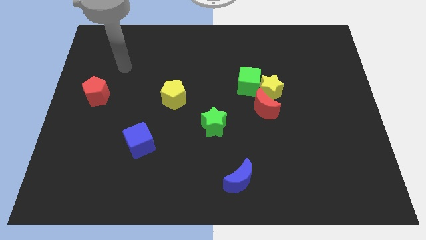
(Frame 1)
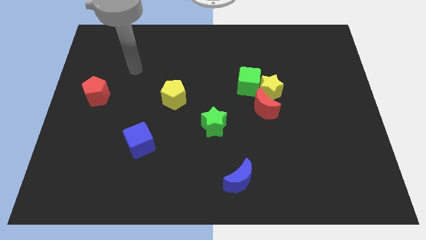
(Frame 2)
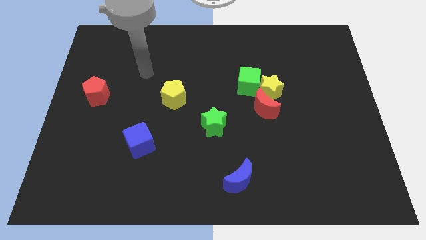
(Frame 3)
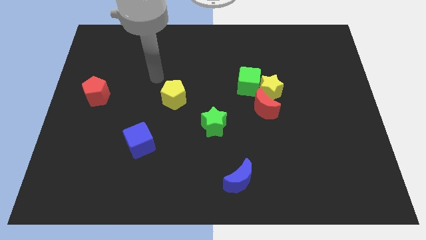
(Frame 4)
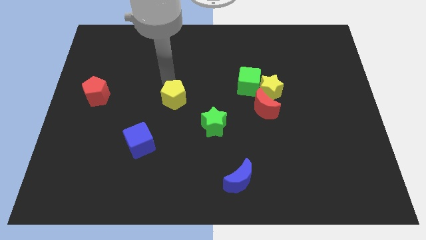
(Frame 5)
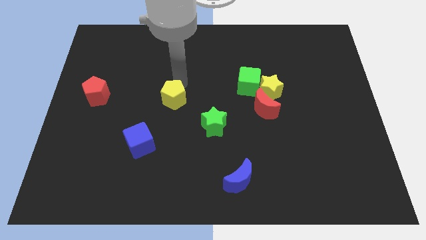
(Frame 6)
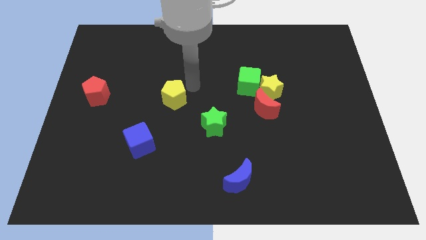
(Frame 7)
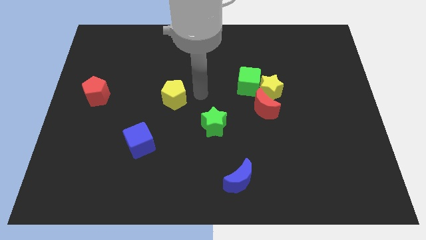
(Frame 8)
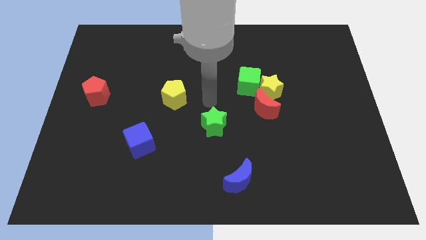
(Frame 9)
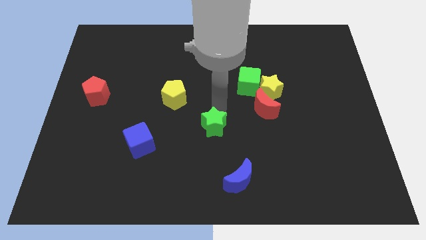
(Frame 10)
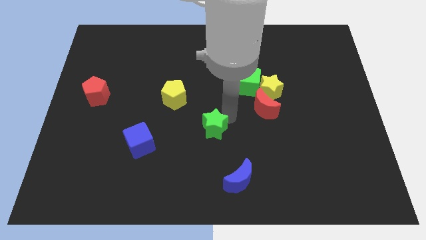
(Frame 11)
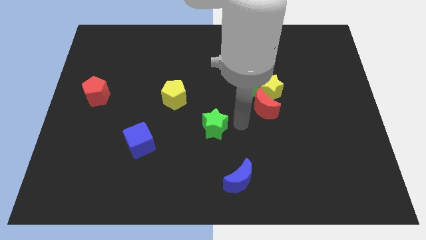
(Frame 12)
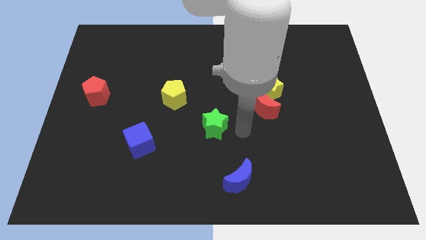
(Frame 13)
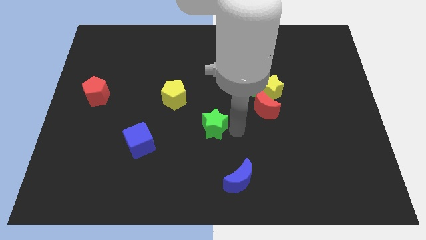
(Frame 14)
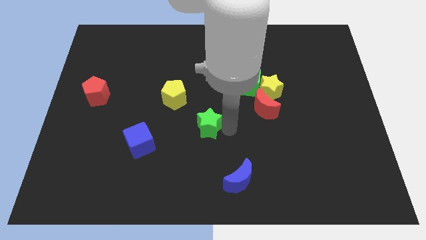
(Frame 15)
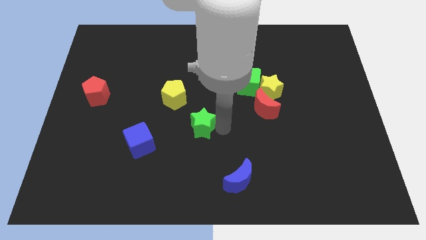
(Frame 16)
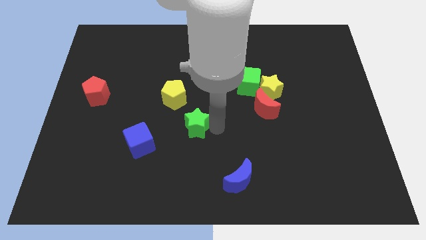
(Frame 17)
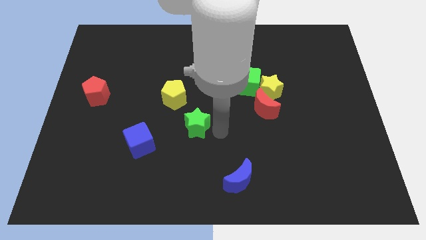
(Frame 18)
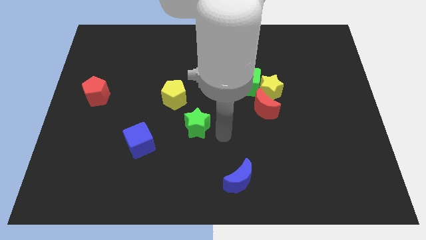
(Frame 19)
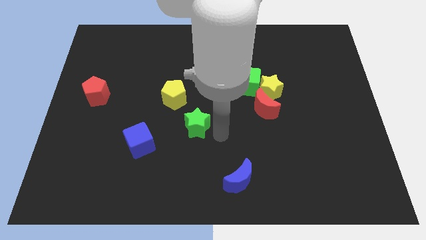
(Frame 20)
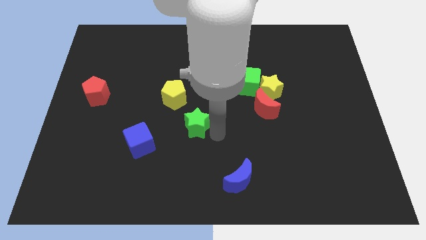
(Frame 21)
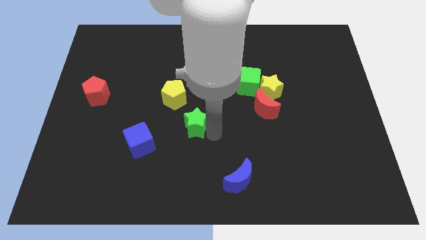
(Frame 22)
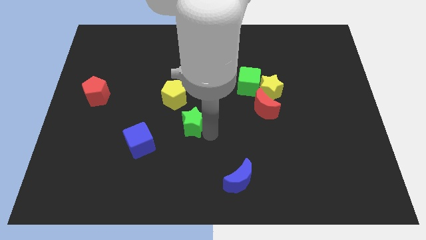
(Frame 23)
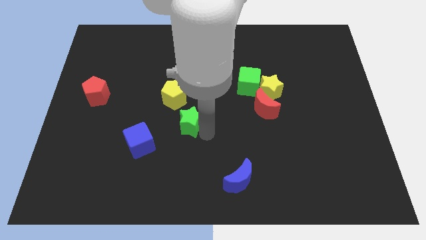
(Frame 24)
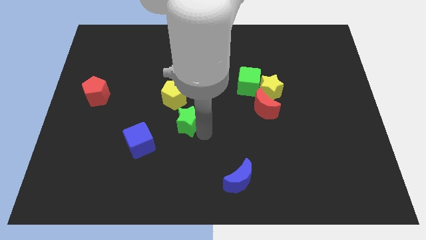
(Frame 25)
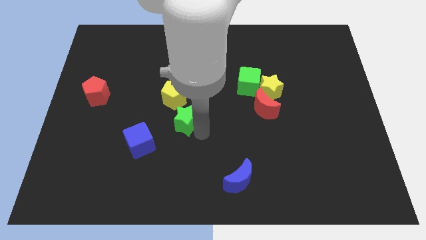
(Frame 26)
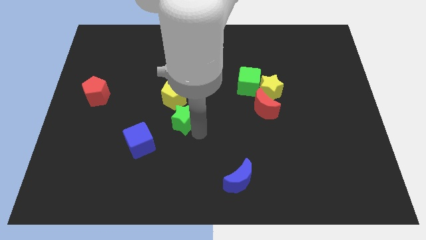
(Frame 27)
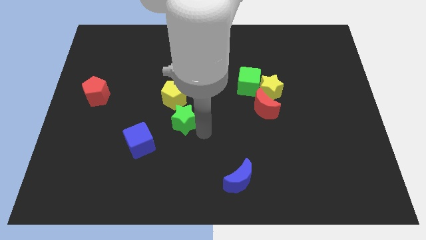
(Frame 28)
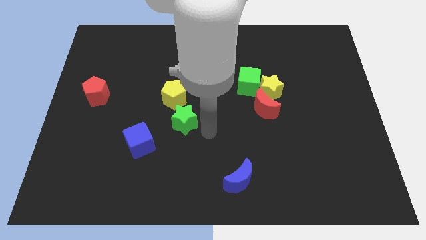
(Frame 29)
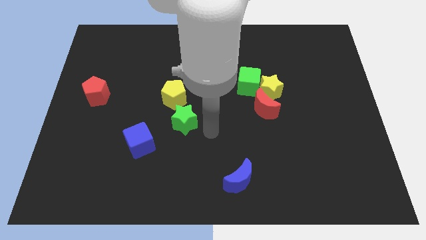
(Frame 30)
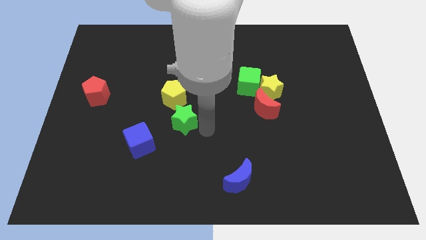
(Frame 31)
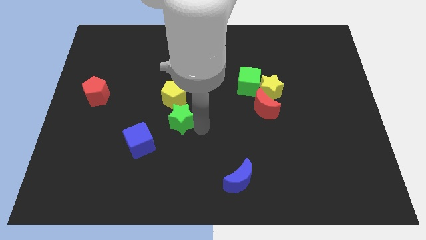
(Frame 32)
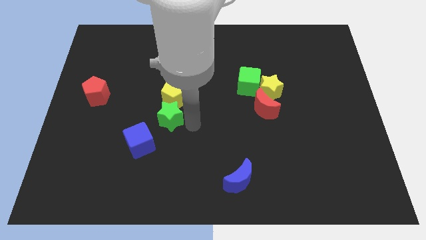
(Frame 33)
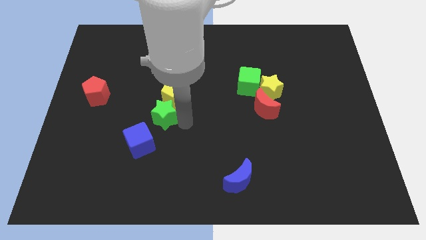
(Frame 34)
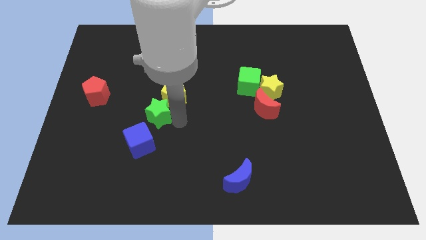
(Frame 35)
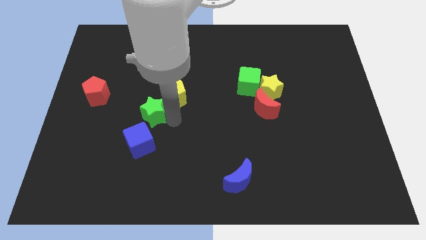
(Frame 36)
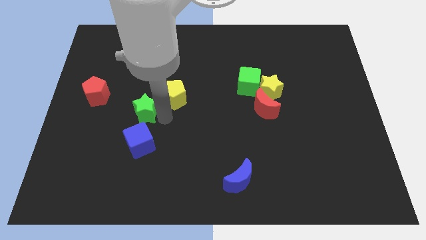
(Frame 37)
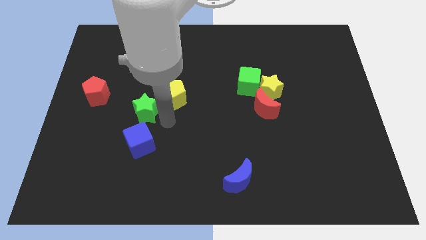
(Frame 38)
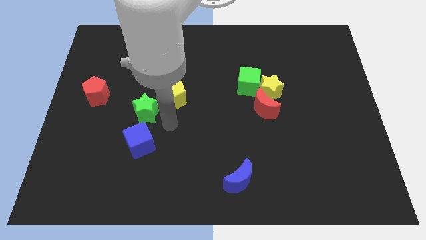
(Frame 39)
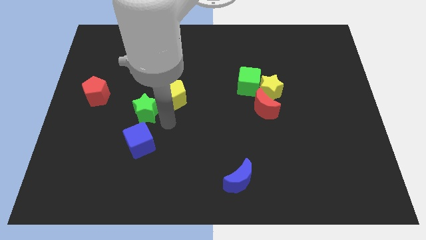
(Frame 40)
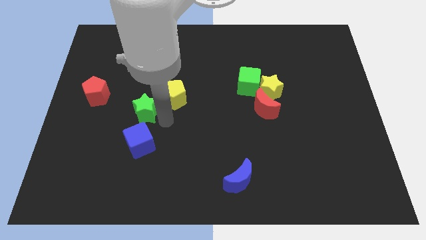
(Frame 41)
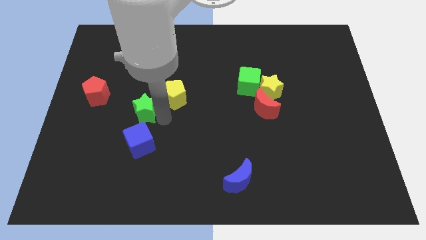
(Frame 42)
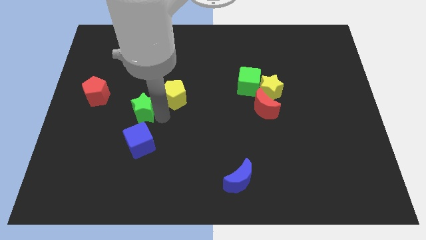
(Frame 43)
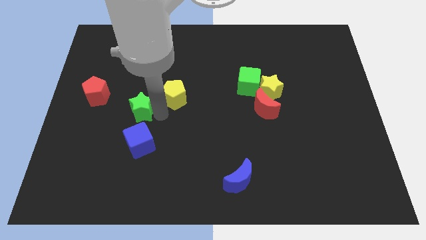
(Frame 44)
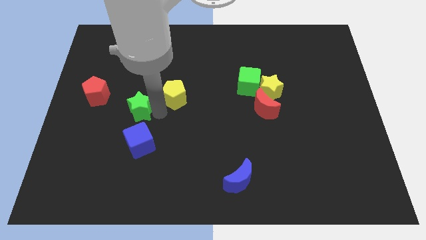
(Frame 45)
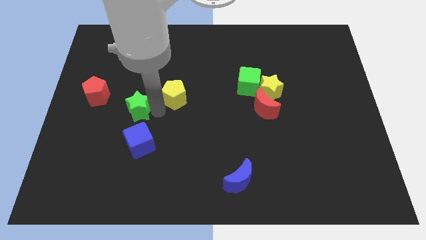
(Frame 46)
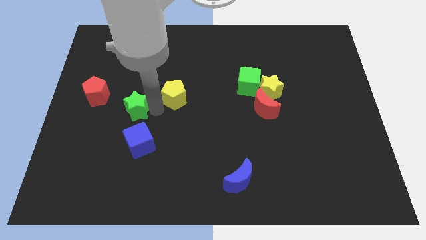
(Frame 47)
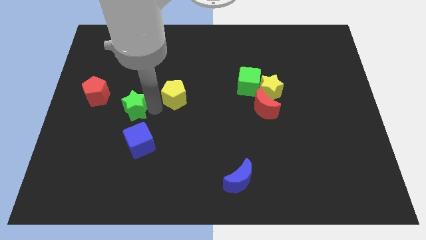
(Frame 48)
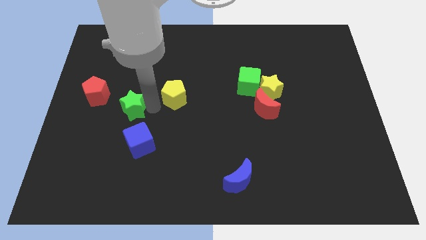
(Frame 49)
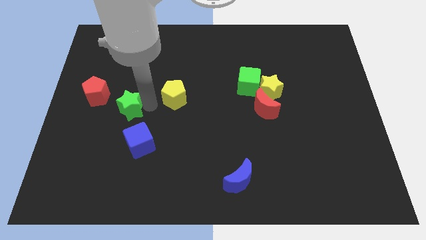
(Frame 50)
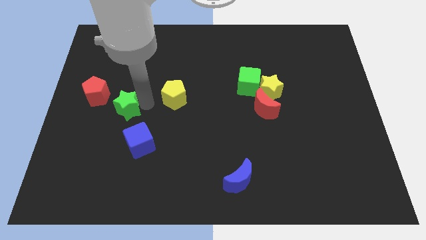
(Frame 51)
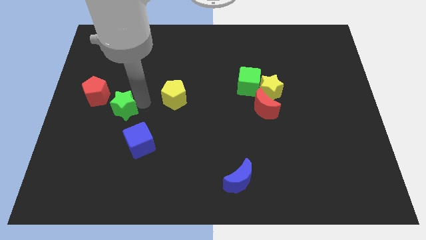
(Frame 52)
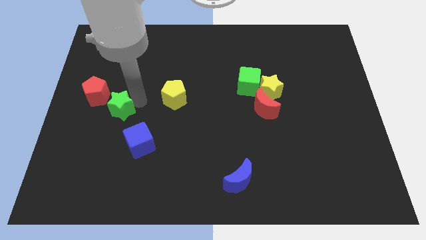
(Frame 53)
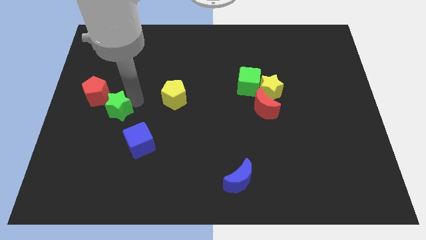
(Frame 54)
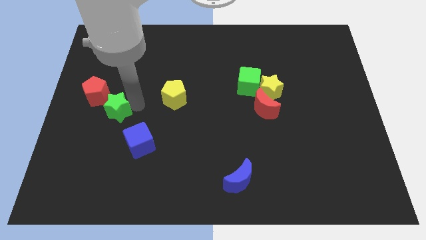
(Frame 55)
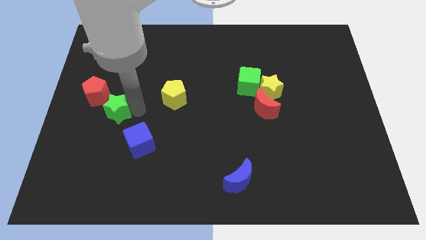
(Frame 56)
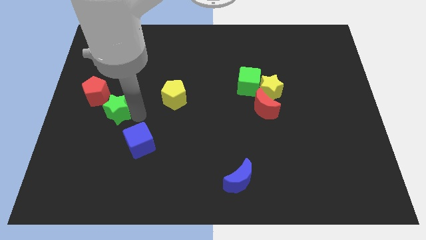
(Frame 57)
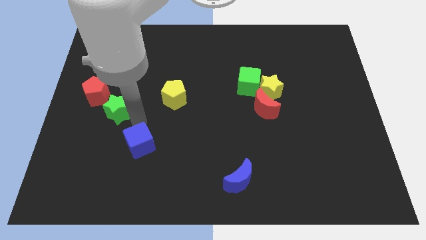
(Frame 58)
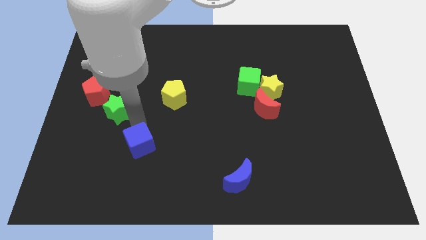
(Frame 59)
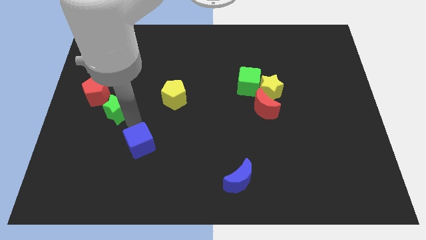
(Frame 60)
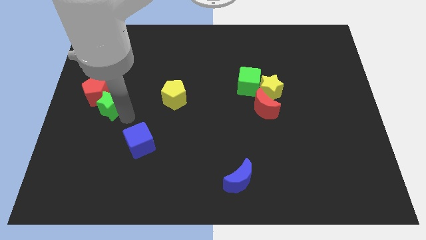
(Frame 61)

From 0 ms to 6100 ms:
push the green star close to the red pentagon

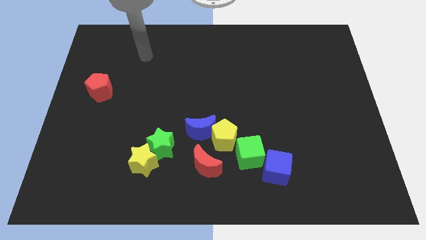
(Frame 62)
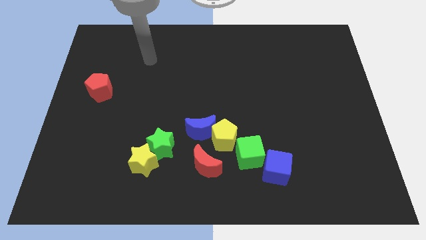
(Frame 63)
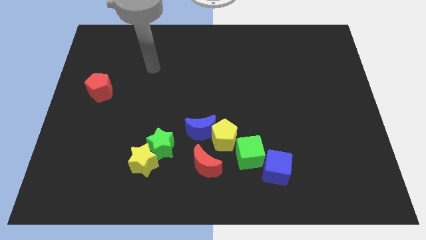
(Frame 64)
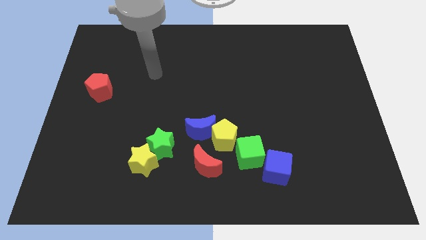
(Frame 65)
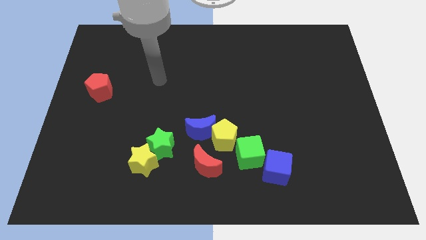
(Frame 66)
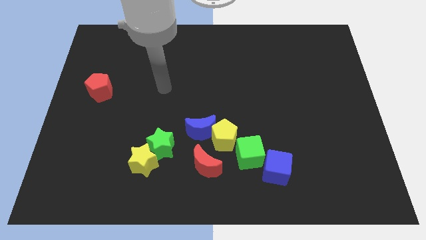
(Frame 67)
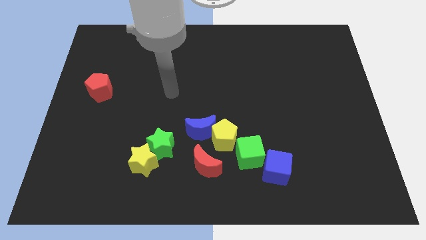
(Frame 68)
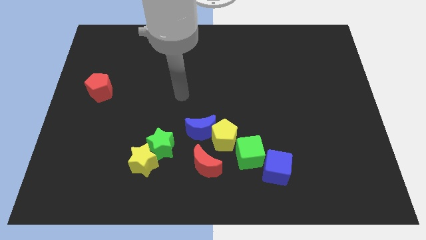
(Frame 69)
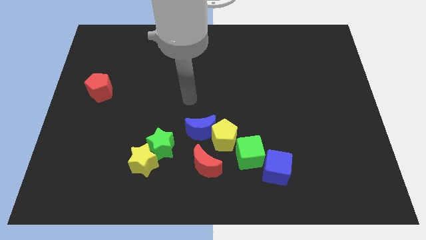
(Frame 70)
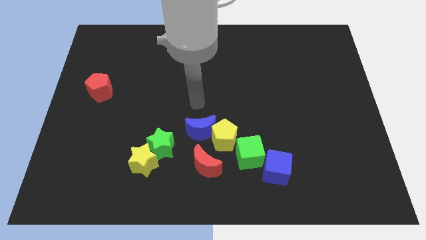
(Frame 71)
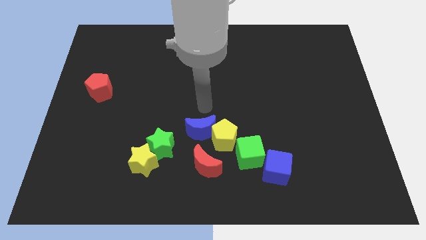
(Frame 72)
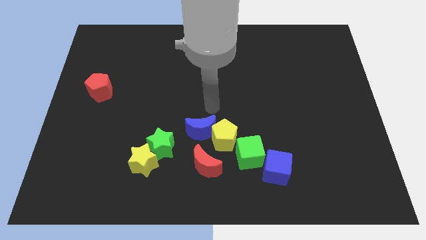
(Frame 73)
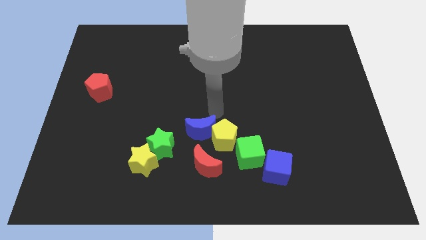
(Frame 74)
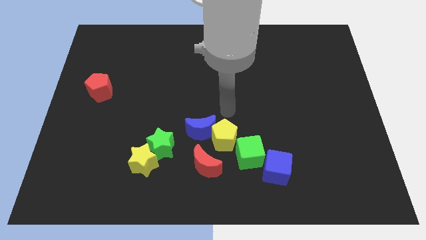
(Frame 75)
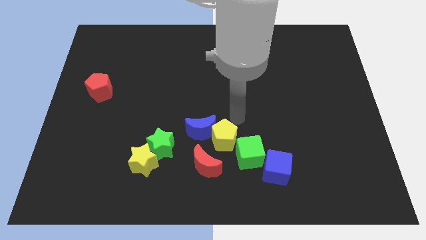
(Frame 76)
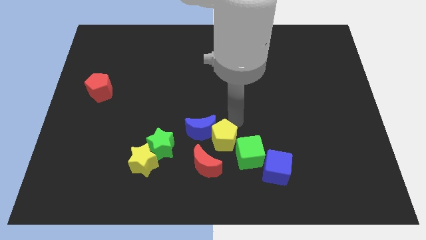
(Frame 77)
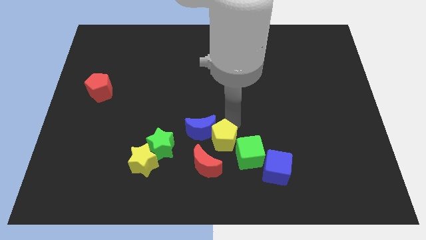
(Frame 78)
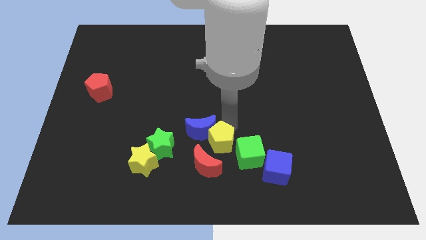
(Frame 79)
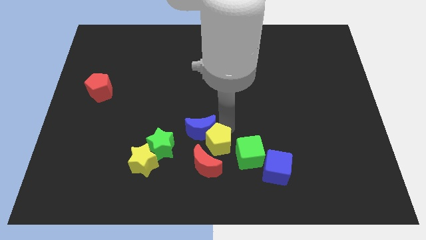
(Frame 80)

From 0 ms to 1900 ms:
slide the yellow pentagon to the red moon
